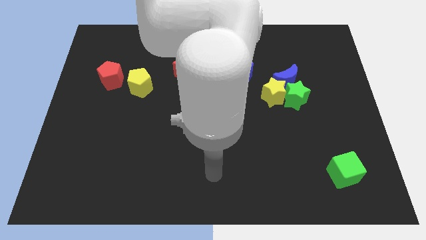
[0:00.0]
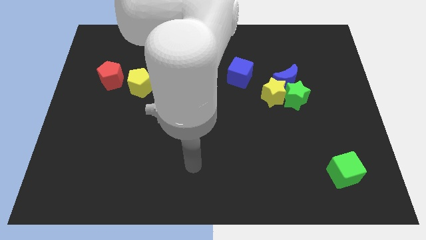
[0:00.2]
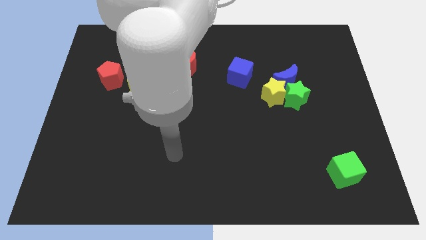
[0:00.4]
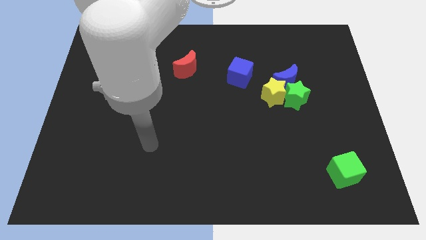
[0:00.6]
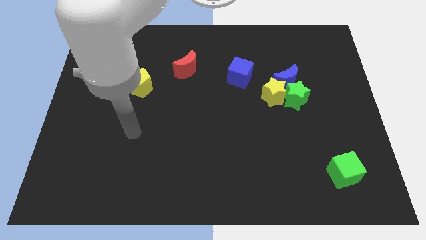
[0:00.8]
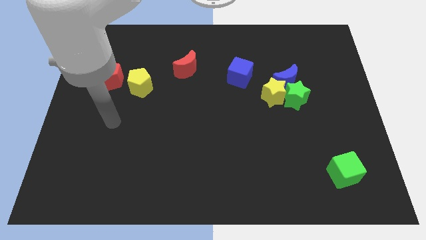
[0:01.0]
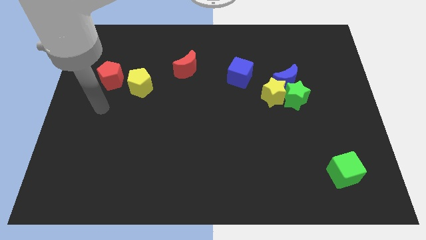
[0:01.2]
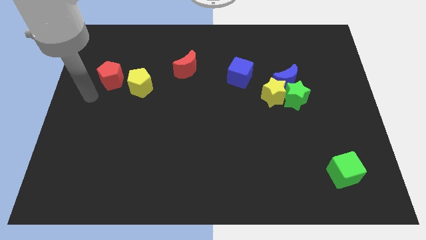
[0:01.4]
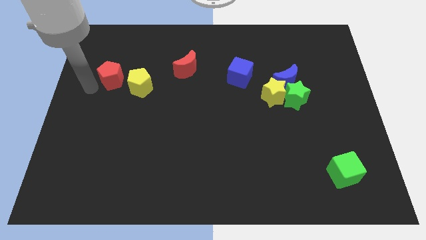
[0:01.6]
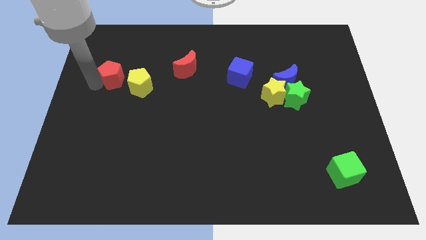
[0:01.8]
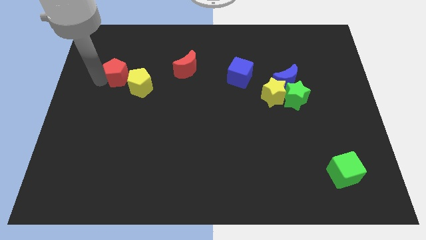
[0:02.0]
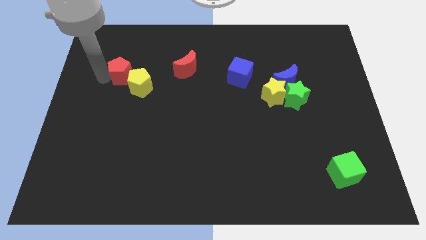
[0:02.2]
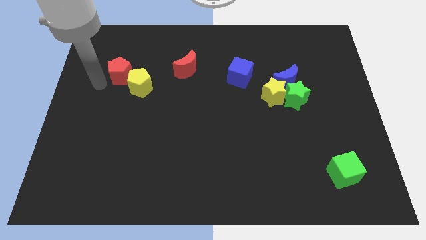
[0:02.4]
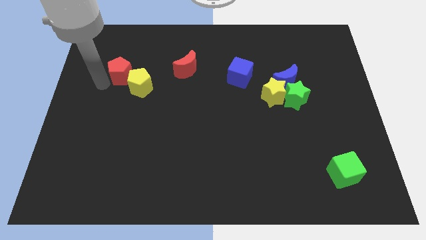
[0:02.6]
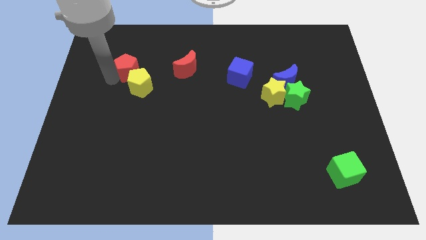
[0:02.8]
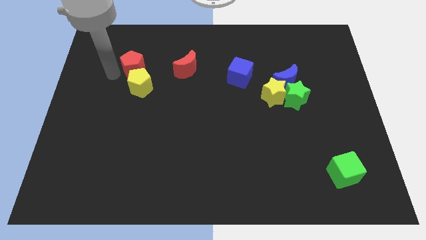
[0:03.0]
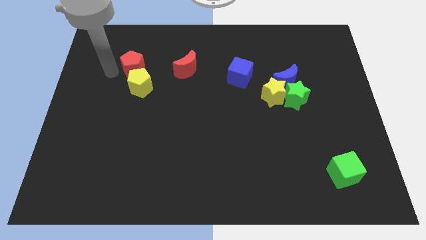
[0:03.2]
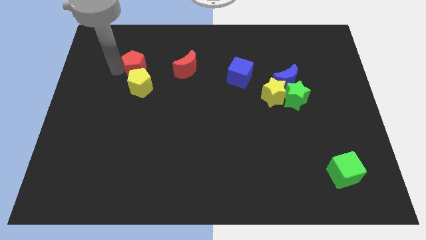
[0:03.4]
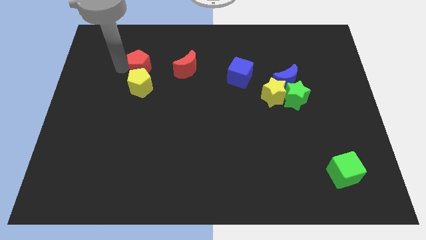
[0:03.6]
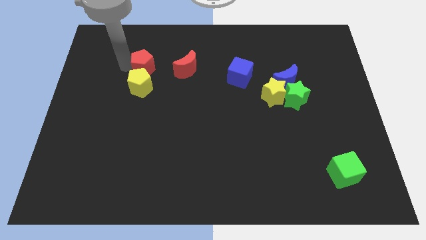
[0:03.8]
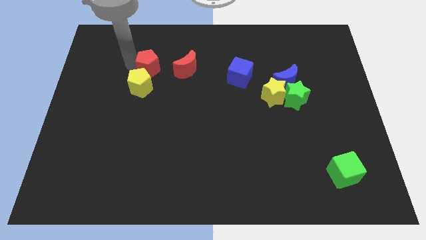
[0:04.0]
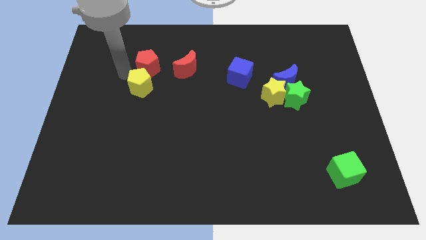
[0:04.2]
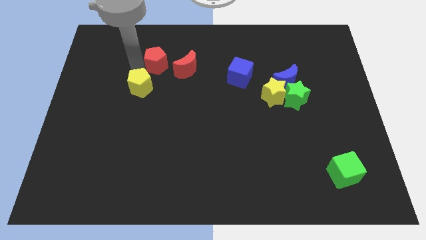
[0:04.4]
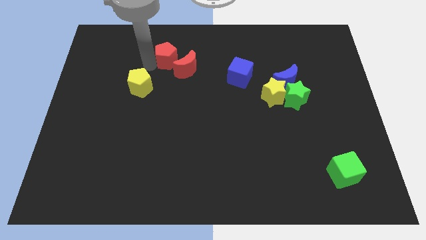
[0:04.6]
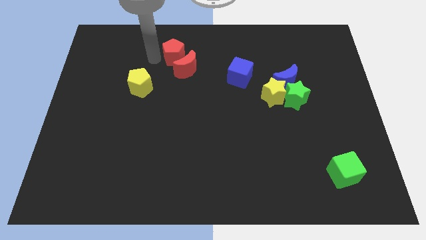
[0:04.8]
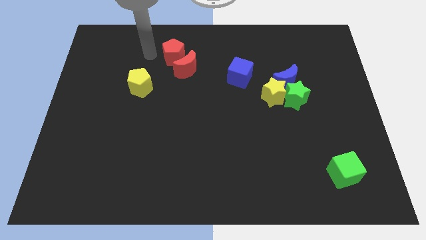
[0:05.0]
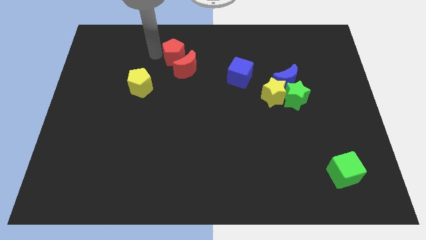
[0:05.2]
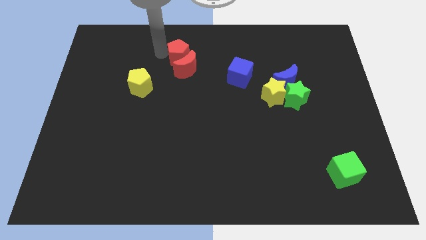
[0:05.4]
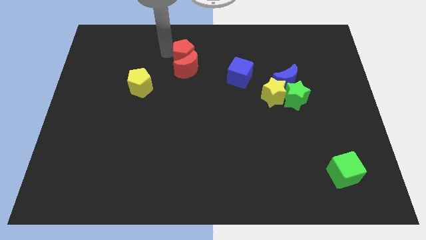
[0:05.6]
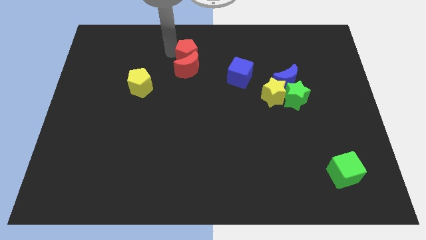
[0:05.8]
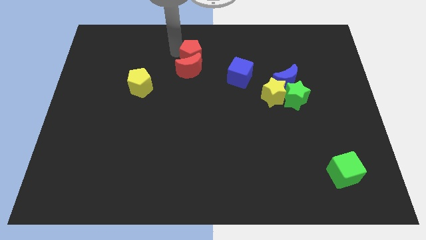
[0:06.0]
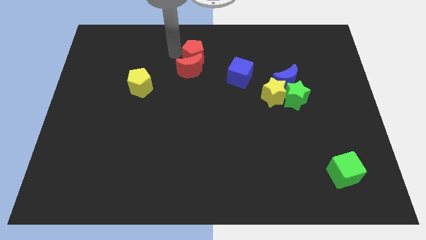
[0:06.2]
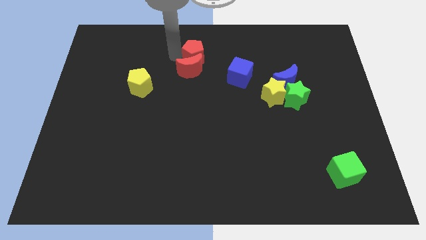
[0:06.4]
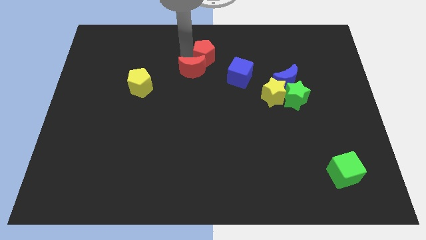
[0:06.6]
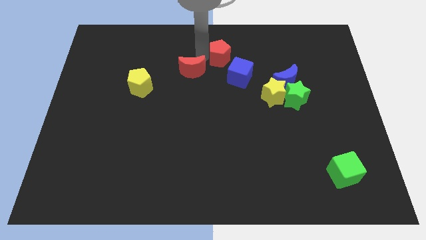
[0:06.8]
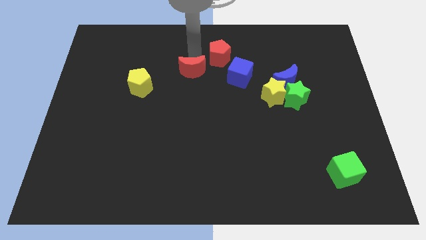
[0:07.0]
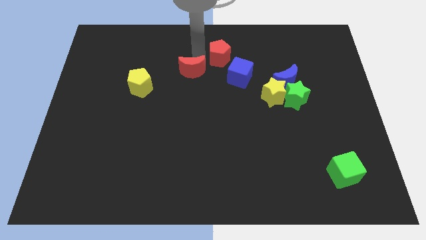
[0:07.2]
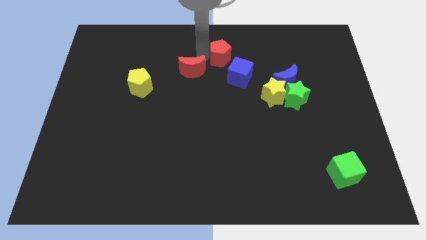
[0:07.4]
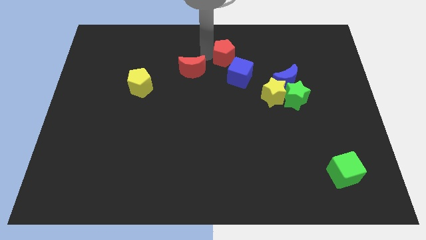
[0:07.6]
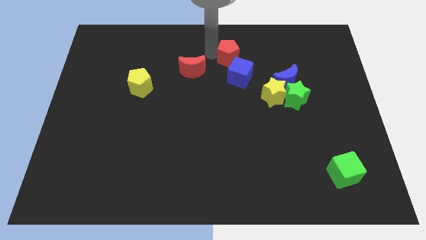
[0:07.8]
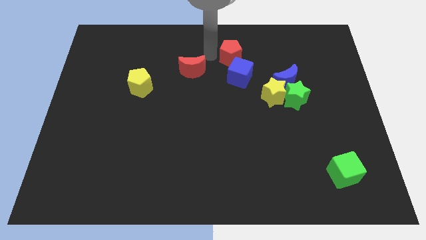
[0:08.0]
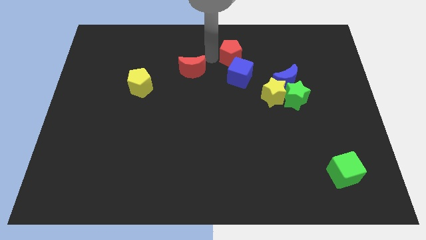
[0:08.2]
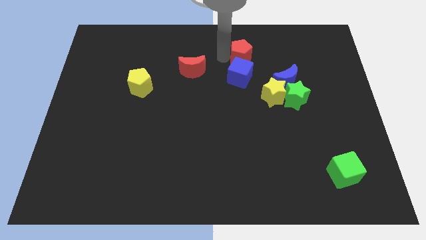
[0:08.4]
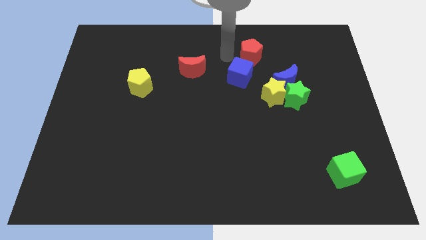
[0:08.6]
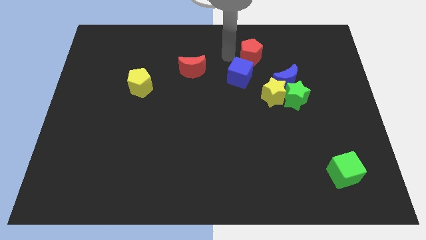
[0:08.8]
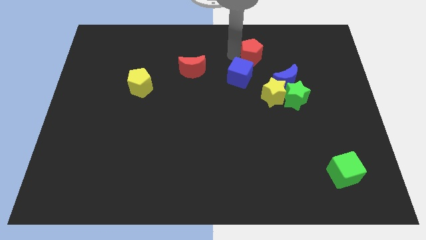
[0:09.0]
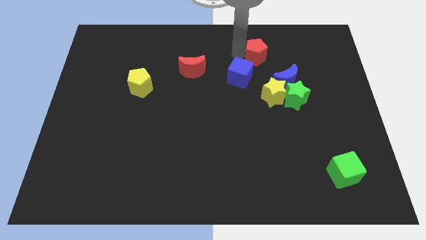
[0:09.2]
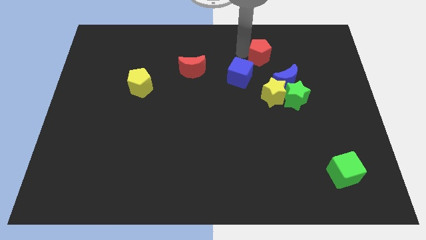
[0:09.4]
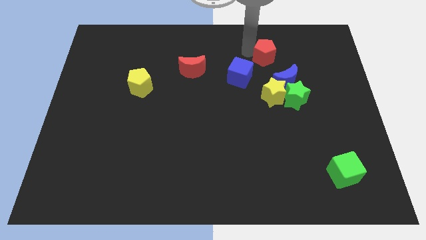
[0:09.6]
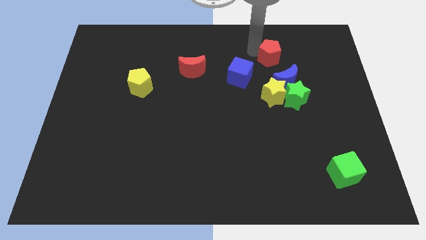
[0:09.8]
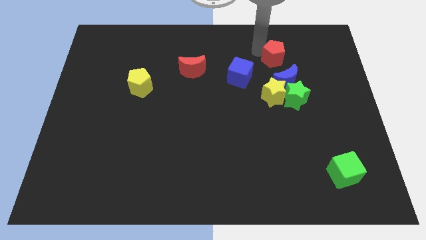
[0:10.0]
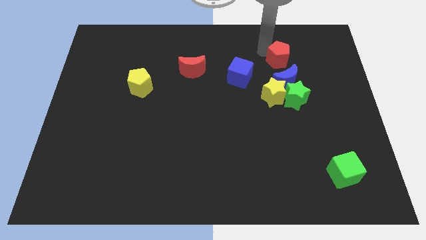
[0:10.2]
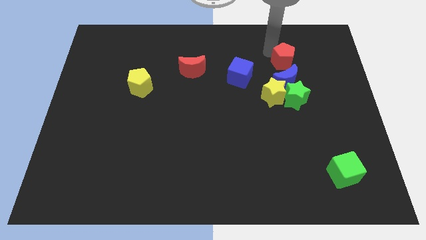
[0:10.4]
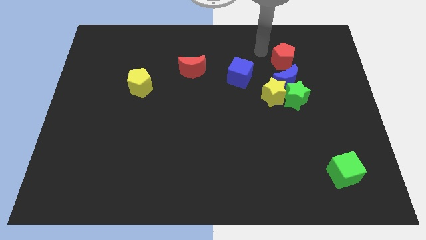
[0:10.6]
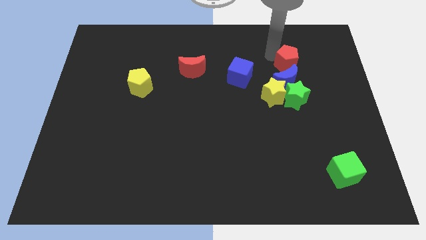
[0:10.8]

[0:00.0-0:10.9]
move the red pentagon to the top right side of the blue moon

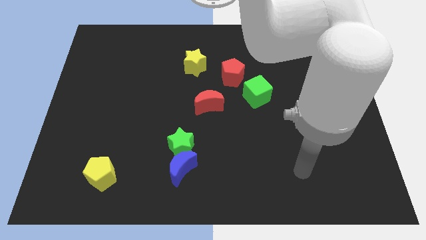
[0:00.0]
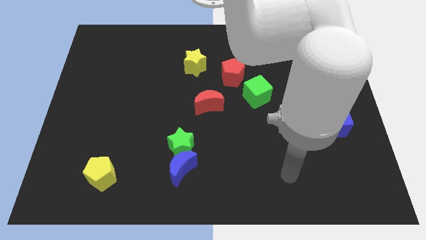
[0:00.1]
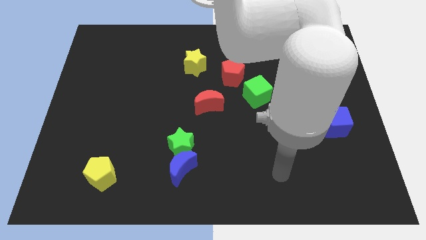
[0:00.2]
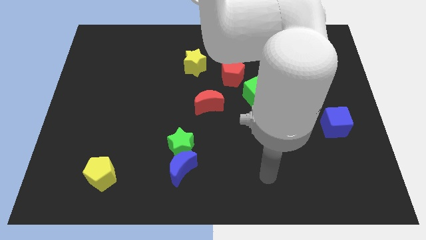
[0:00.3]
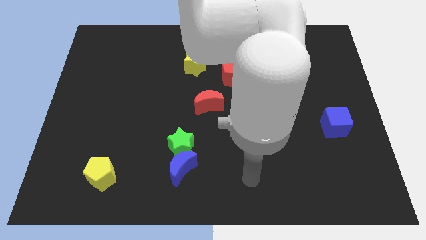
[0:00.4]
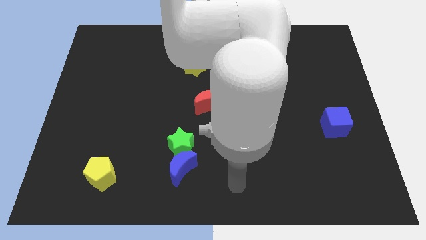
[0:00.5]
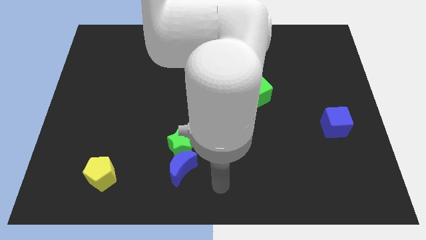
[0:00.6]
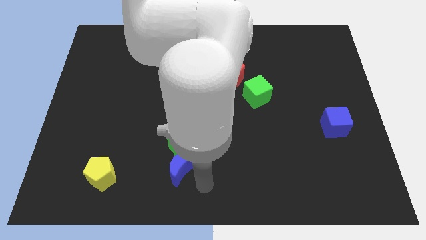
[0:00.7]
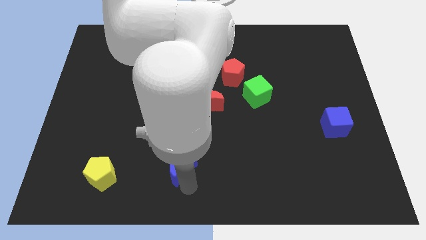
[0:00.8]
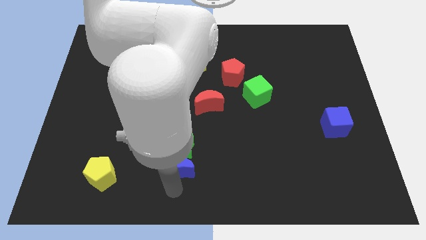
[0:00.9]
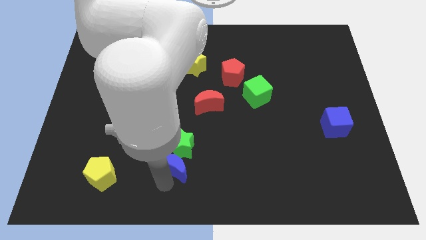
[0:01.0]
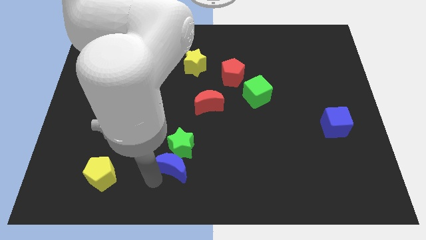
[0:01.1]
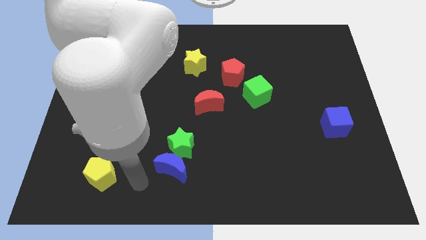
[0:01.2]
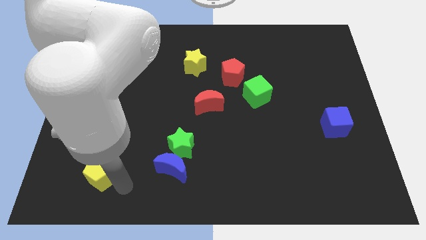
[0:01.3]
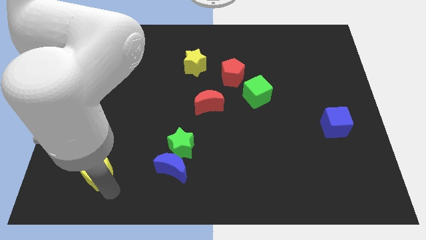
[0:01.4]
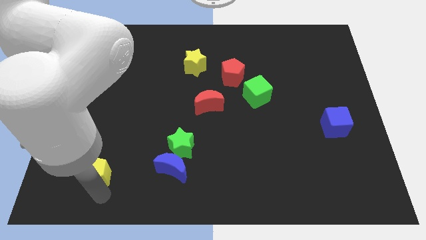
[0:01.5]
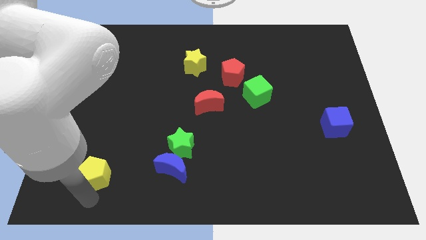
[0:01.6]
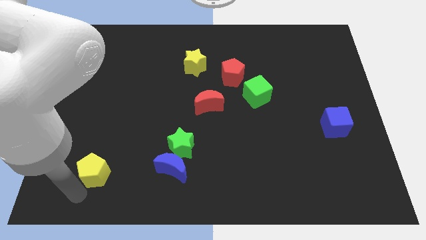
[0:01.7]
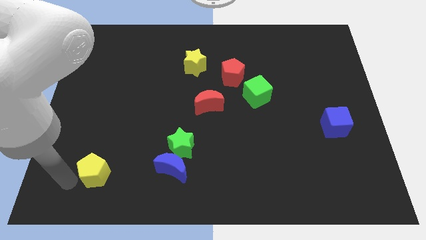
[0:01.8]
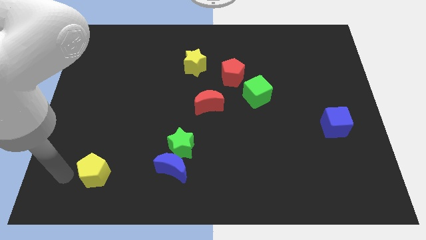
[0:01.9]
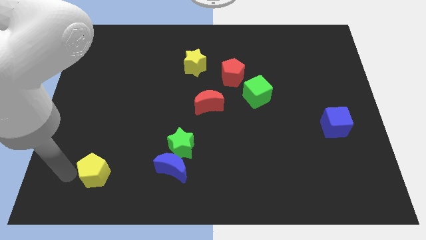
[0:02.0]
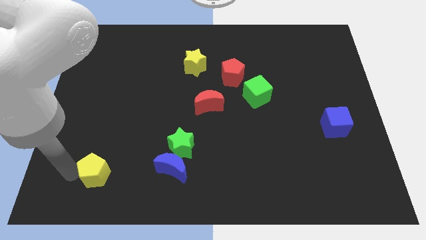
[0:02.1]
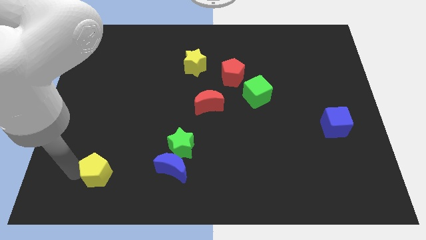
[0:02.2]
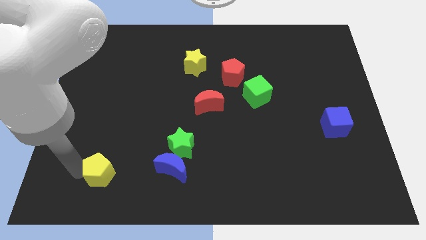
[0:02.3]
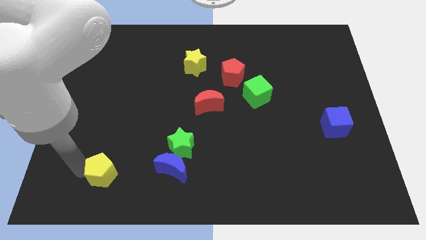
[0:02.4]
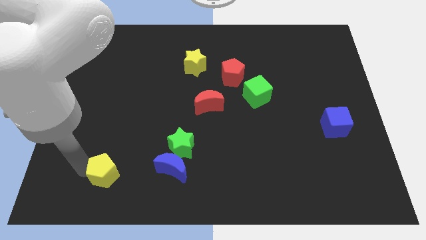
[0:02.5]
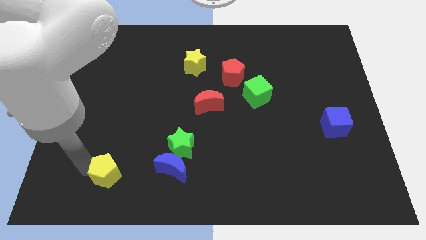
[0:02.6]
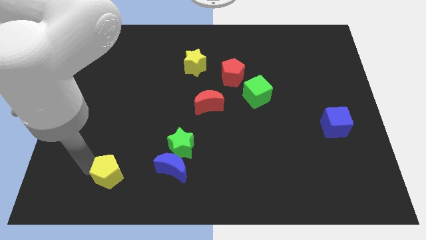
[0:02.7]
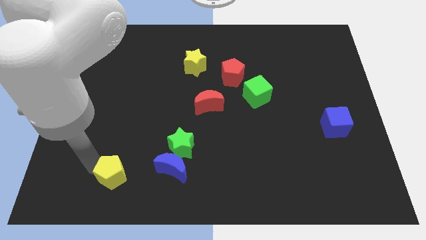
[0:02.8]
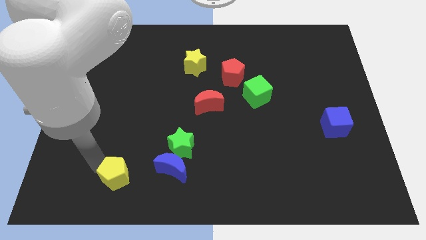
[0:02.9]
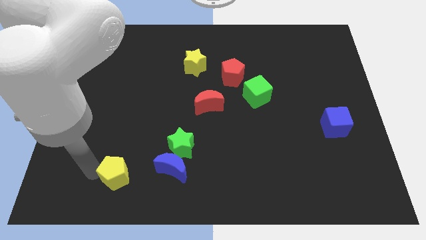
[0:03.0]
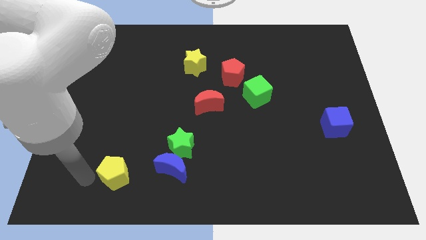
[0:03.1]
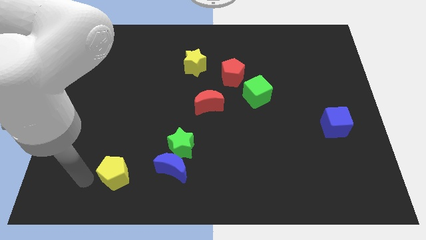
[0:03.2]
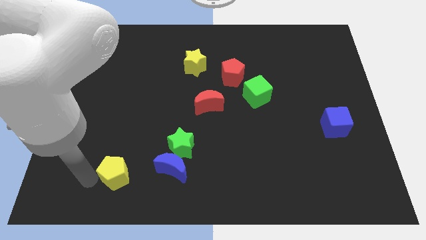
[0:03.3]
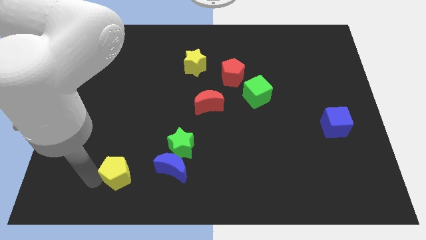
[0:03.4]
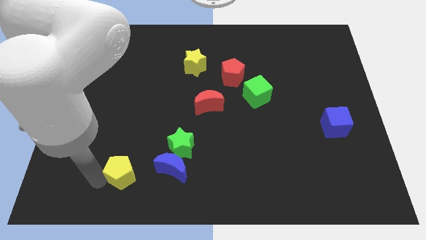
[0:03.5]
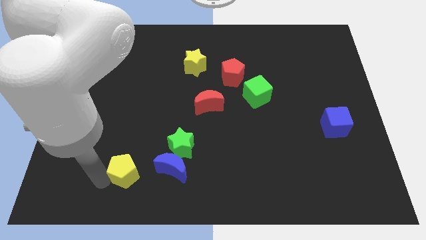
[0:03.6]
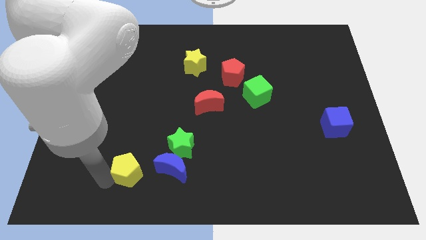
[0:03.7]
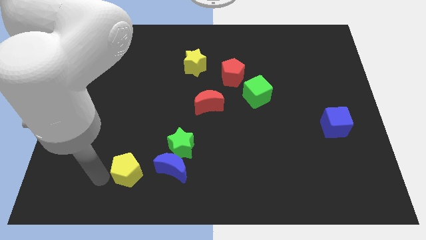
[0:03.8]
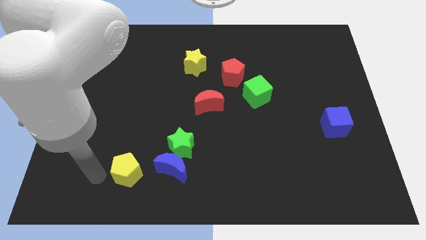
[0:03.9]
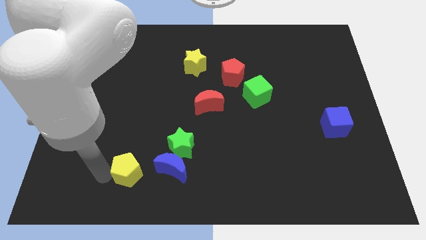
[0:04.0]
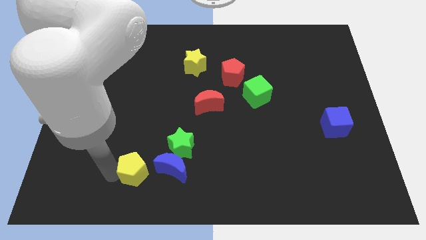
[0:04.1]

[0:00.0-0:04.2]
put the yellow pentagon diagonally down and to the left of the green star
